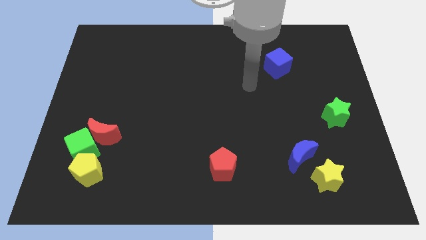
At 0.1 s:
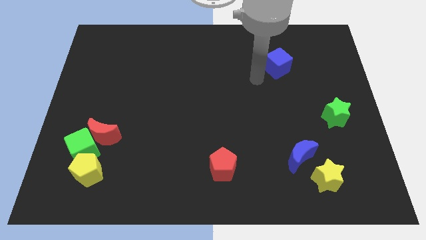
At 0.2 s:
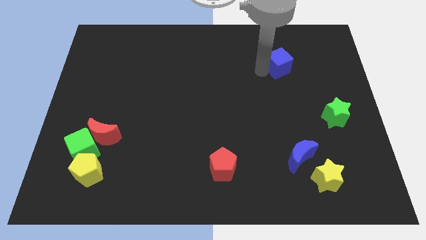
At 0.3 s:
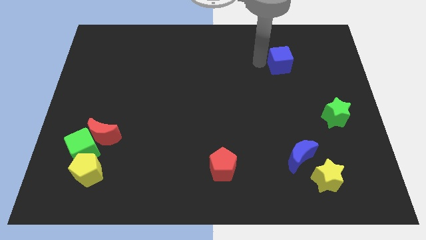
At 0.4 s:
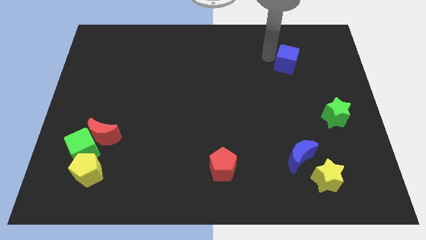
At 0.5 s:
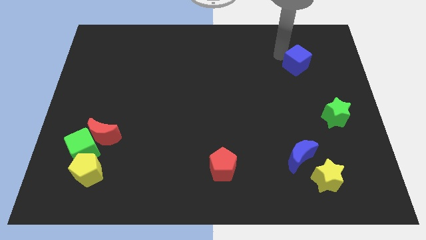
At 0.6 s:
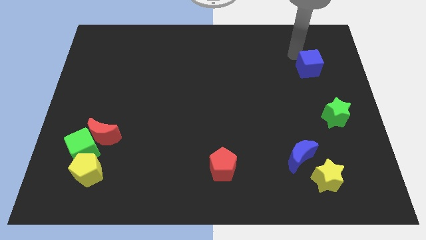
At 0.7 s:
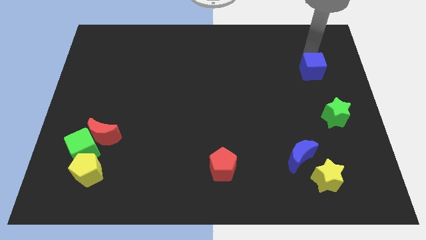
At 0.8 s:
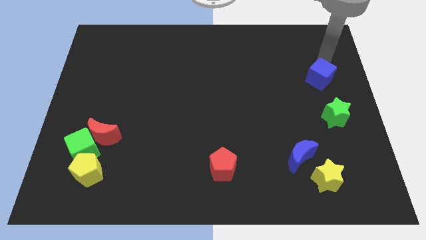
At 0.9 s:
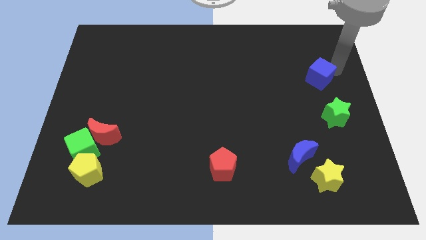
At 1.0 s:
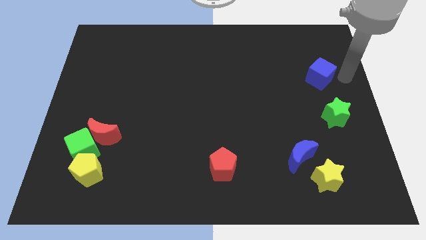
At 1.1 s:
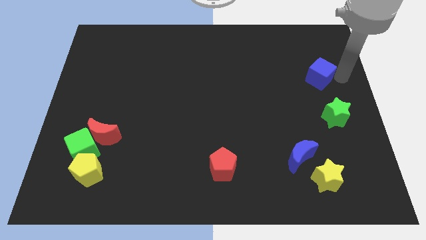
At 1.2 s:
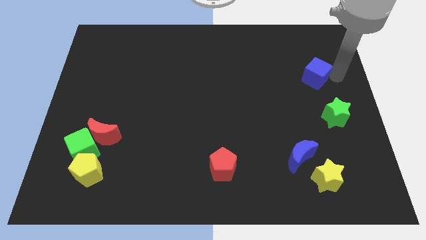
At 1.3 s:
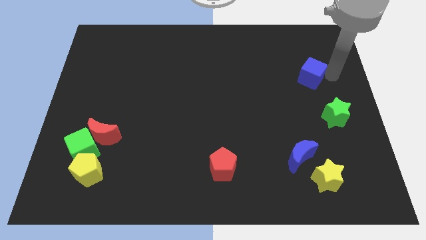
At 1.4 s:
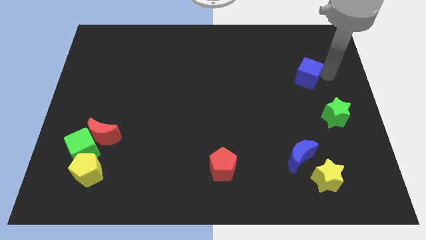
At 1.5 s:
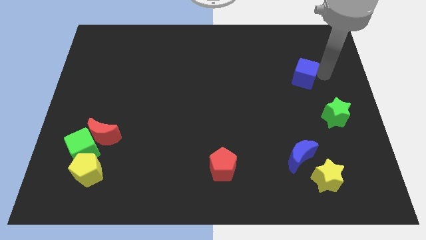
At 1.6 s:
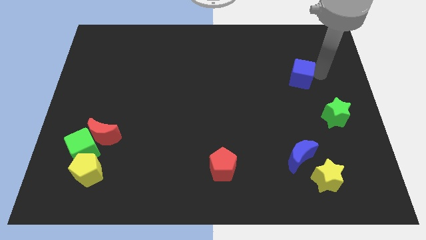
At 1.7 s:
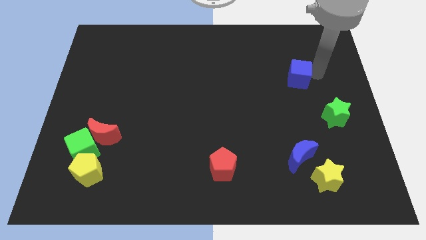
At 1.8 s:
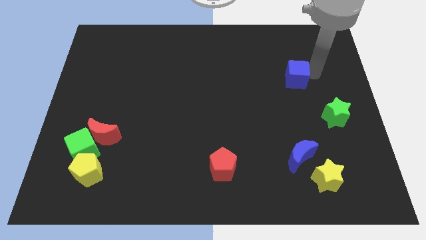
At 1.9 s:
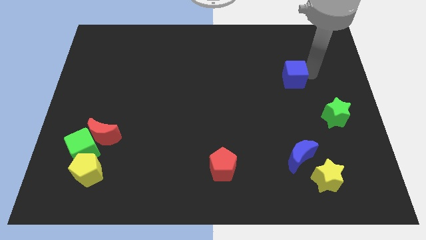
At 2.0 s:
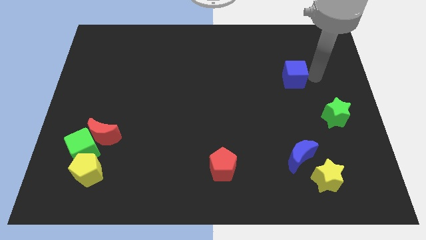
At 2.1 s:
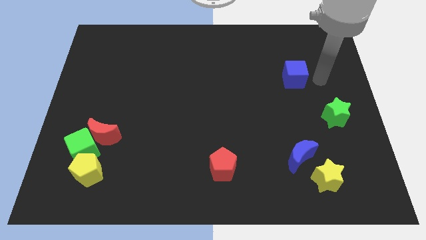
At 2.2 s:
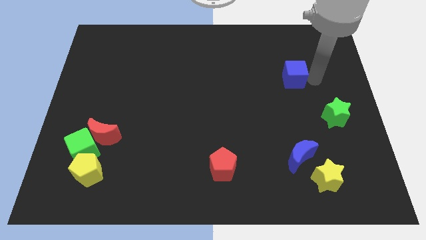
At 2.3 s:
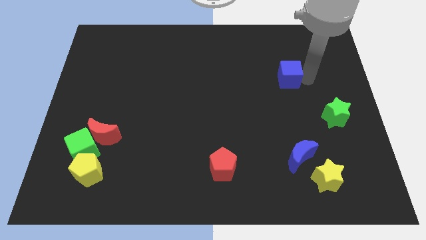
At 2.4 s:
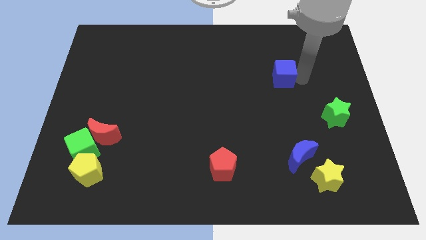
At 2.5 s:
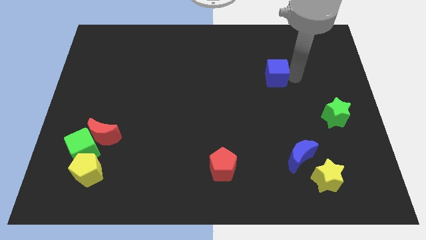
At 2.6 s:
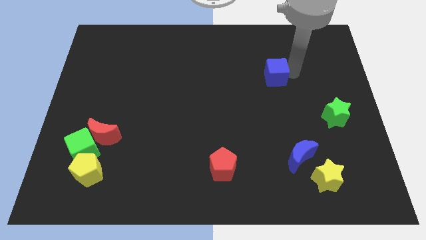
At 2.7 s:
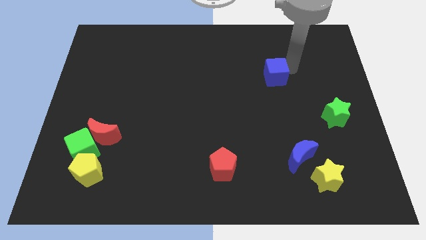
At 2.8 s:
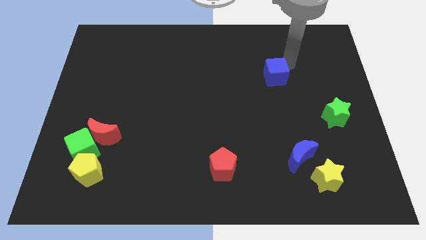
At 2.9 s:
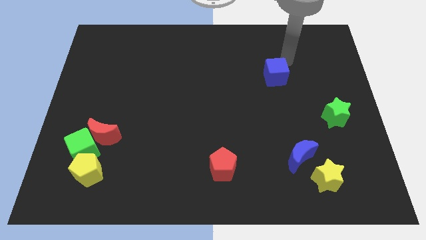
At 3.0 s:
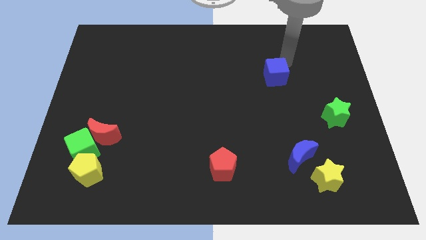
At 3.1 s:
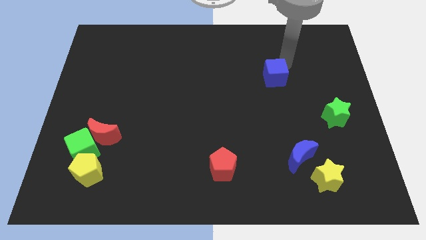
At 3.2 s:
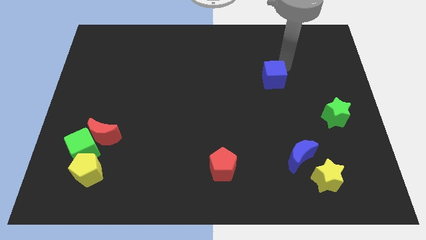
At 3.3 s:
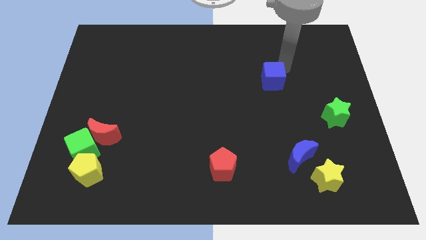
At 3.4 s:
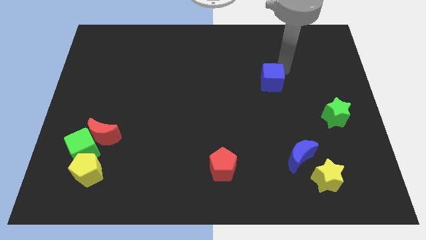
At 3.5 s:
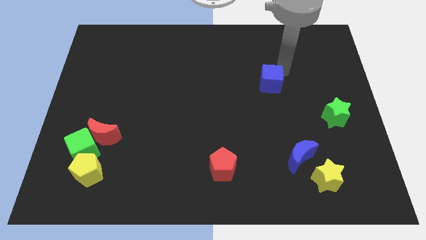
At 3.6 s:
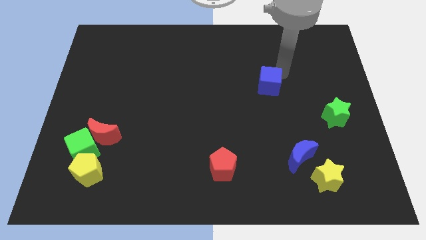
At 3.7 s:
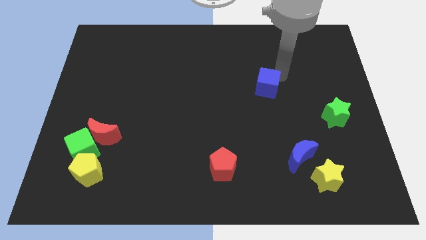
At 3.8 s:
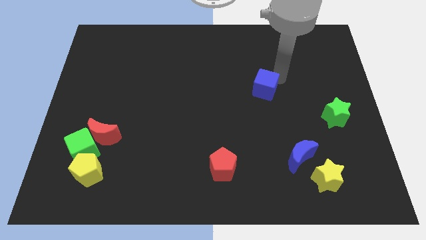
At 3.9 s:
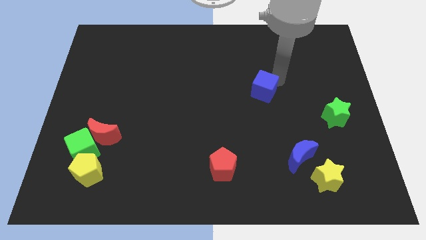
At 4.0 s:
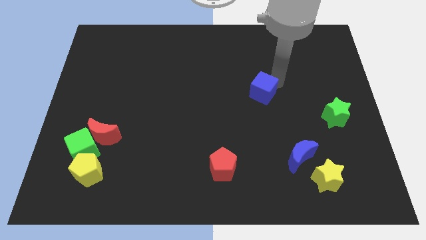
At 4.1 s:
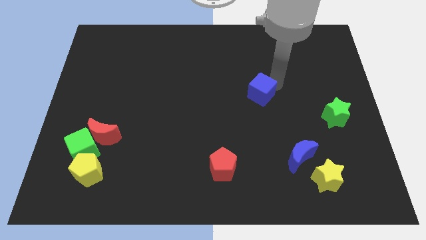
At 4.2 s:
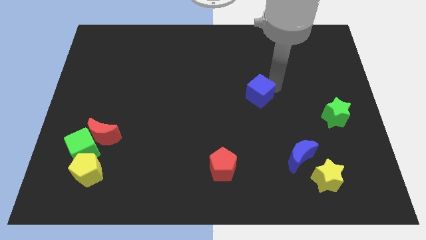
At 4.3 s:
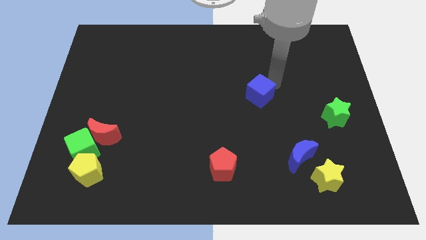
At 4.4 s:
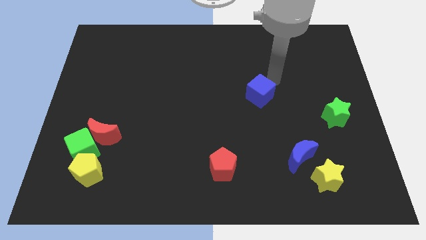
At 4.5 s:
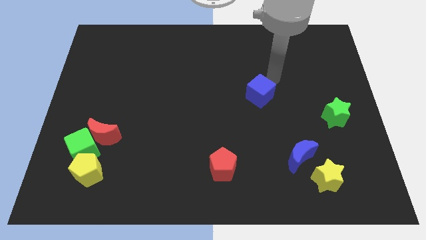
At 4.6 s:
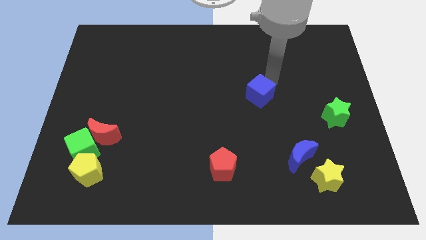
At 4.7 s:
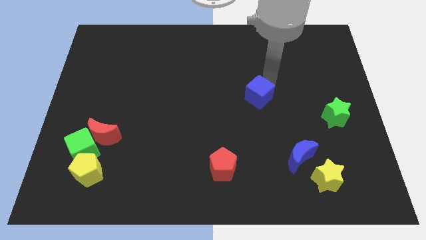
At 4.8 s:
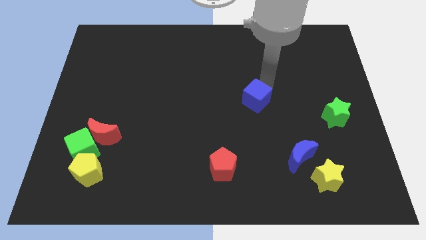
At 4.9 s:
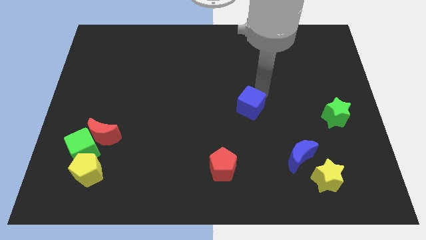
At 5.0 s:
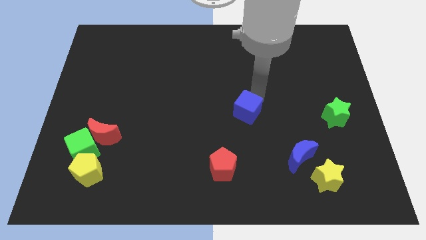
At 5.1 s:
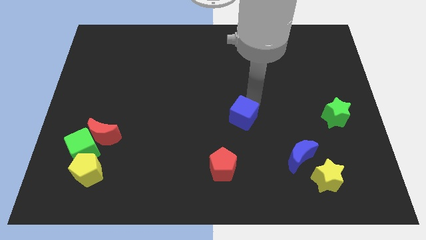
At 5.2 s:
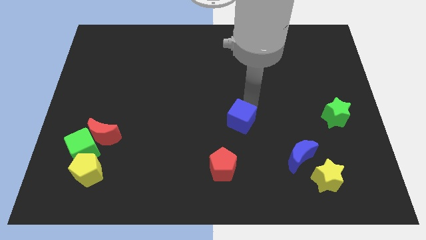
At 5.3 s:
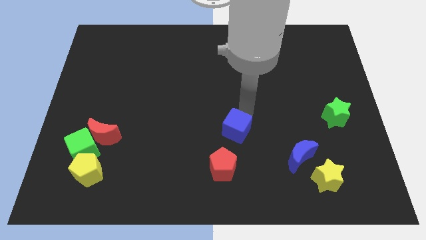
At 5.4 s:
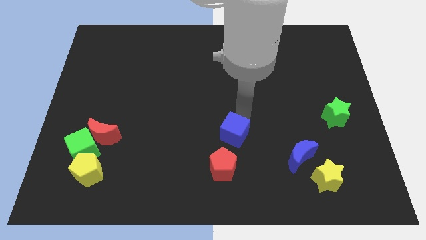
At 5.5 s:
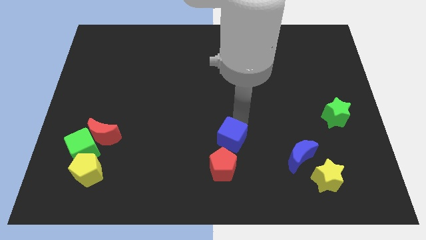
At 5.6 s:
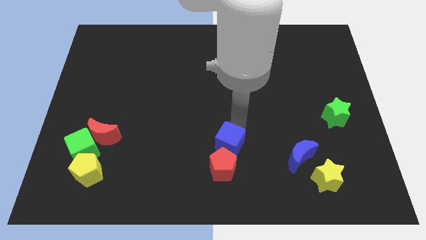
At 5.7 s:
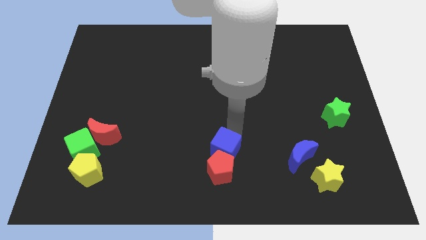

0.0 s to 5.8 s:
push the blue cube next to the red pentagon

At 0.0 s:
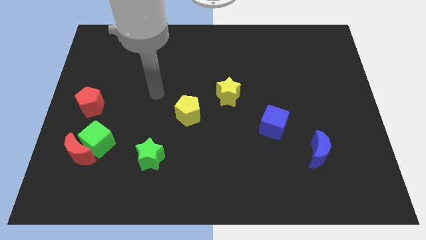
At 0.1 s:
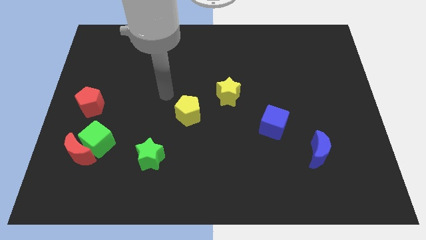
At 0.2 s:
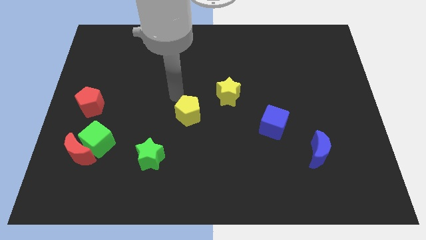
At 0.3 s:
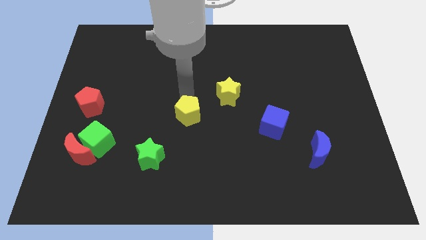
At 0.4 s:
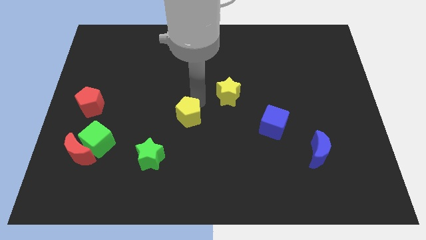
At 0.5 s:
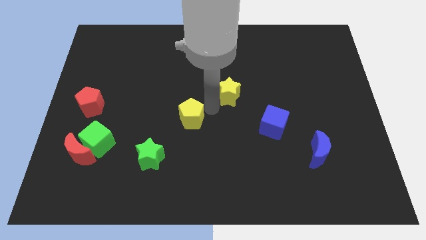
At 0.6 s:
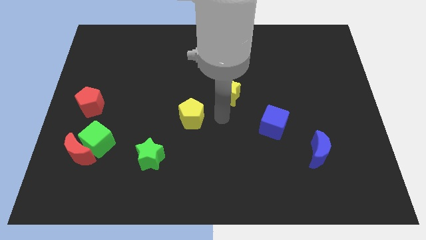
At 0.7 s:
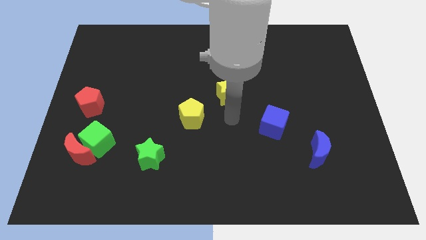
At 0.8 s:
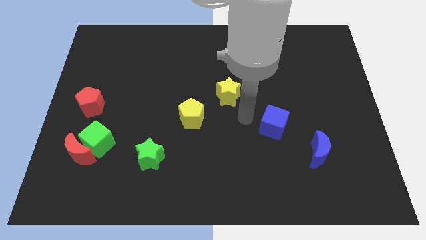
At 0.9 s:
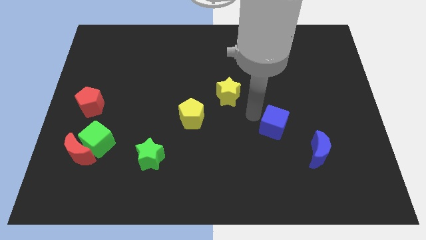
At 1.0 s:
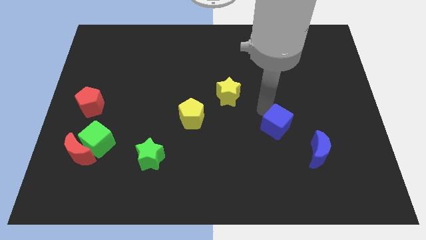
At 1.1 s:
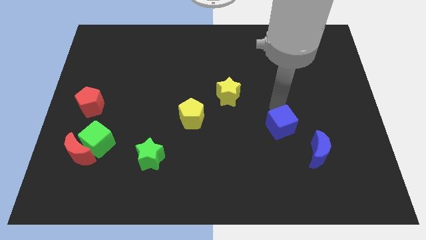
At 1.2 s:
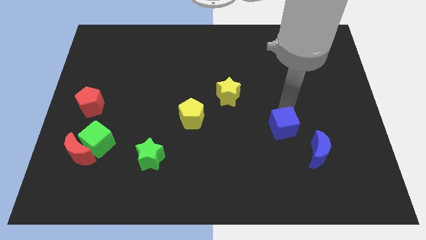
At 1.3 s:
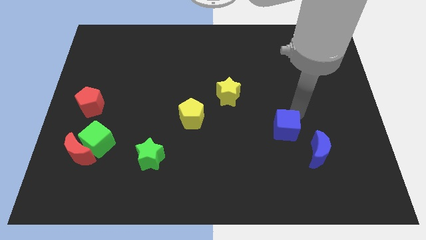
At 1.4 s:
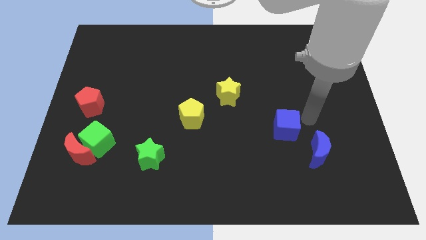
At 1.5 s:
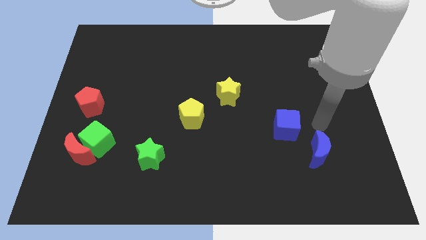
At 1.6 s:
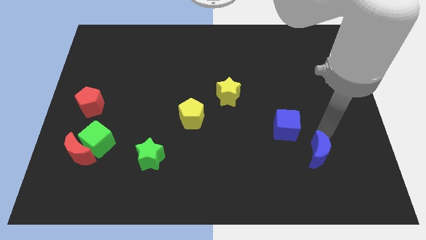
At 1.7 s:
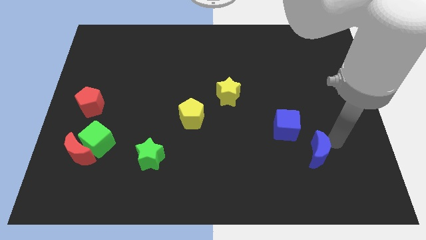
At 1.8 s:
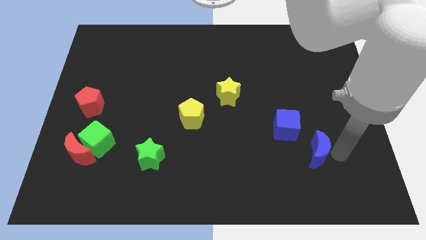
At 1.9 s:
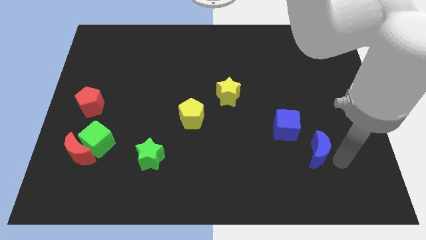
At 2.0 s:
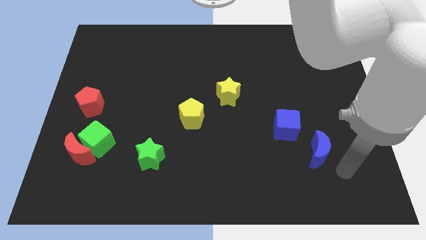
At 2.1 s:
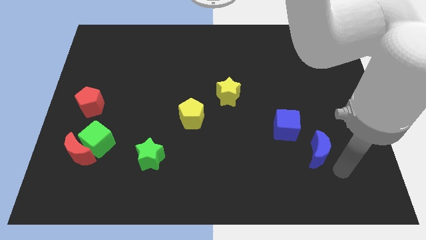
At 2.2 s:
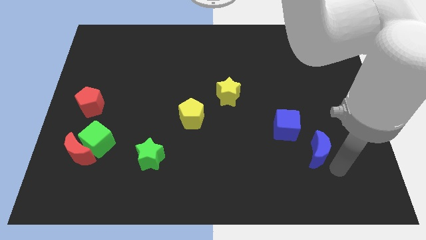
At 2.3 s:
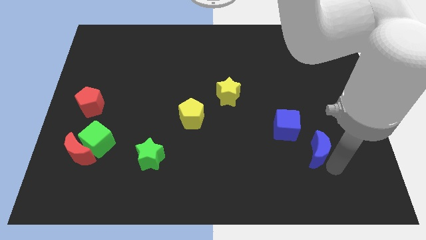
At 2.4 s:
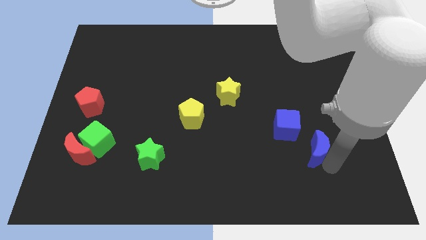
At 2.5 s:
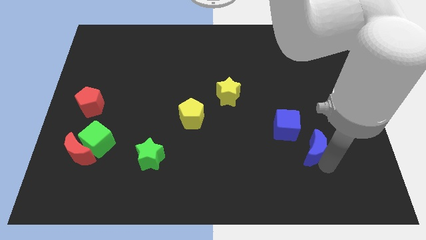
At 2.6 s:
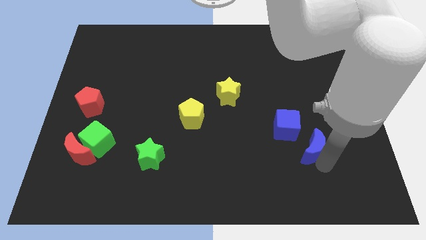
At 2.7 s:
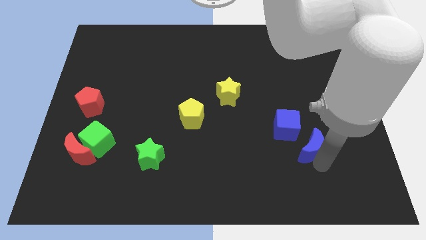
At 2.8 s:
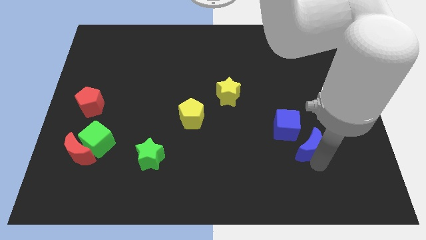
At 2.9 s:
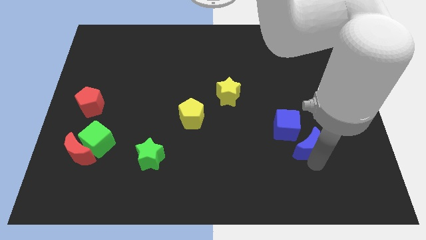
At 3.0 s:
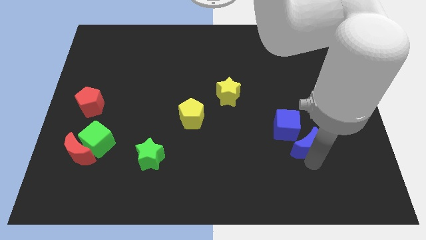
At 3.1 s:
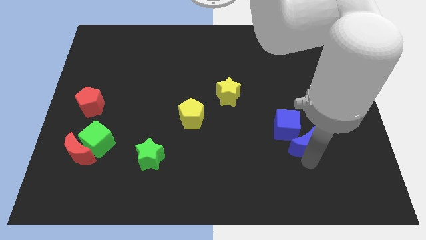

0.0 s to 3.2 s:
push the blue moon towards the blue cube
